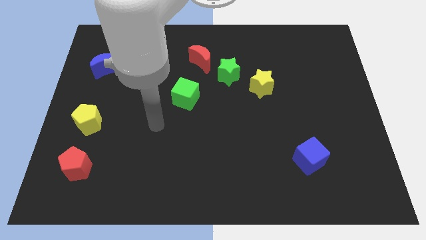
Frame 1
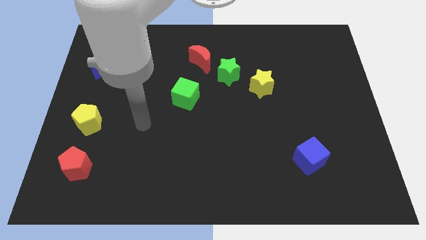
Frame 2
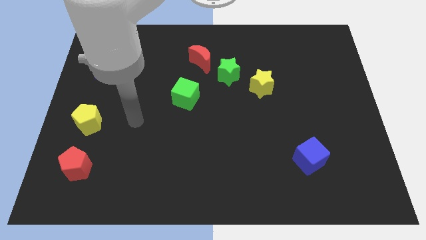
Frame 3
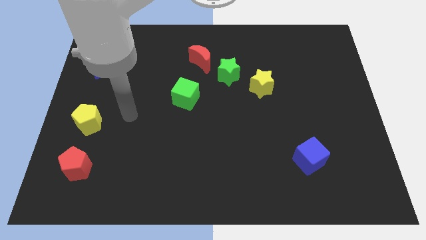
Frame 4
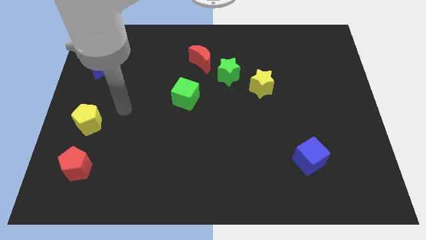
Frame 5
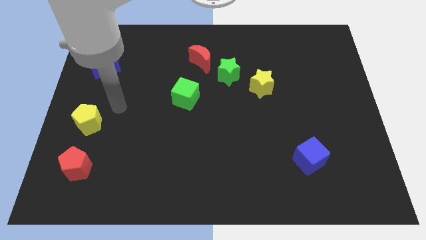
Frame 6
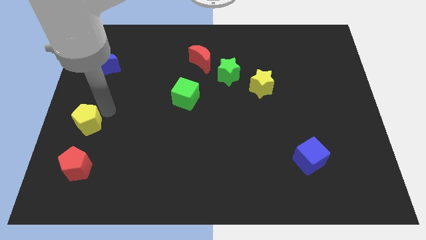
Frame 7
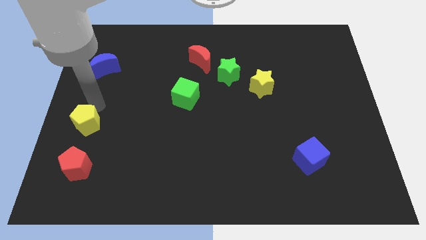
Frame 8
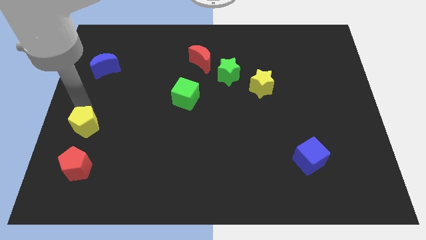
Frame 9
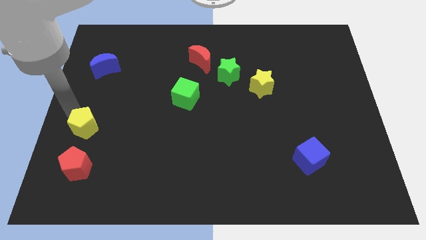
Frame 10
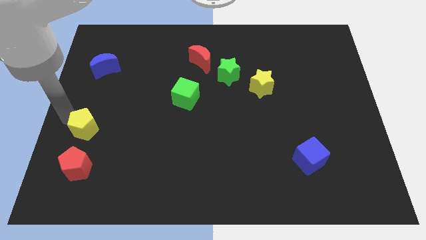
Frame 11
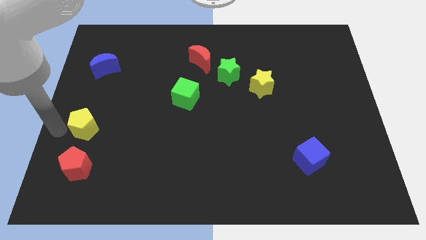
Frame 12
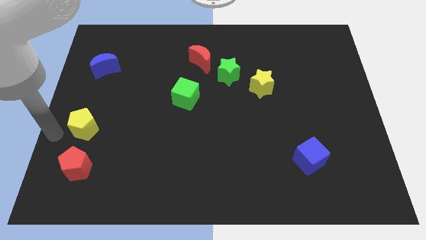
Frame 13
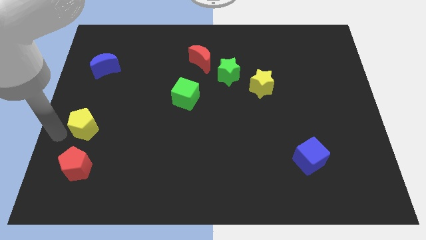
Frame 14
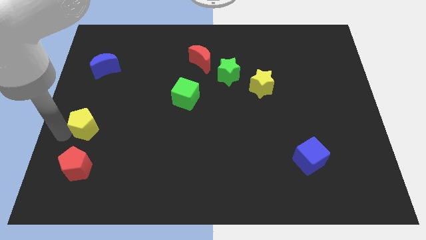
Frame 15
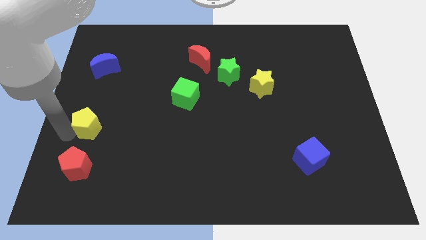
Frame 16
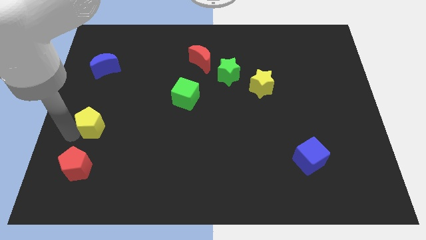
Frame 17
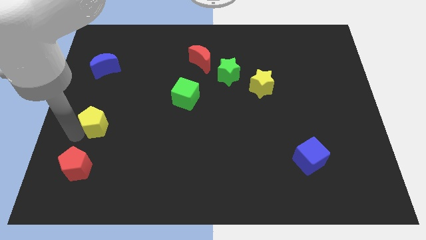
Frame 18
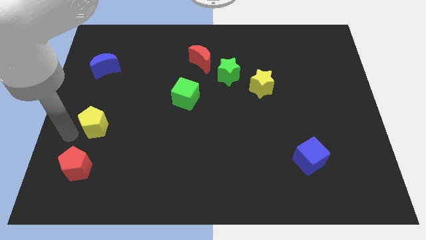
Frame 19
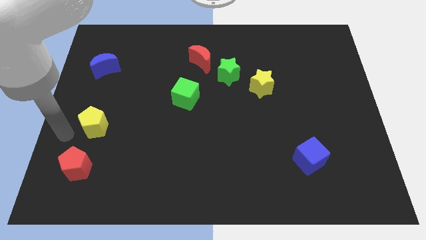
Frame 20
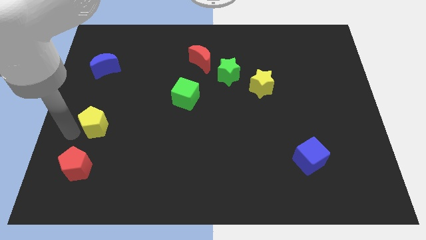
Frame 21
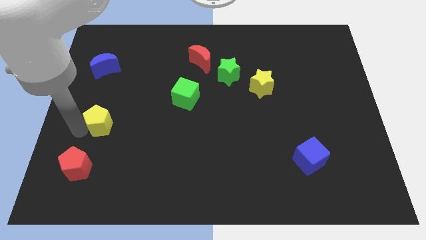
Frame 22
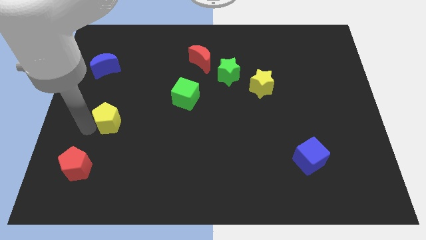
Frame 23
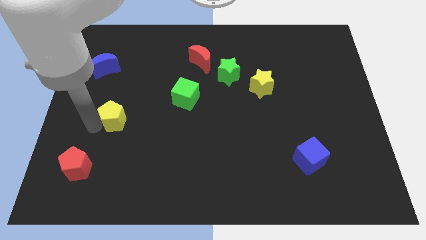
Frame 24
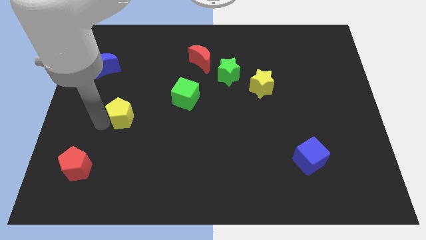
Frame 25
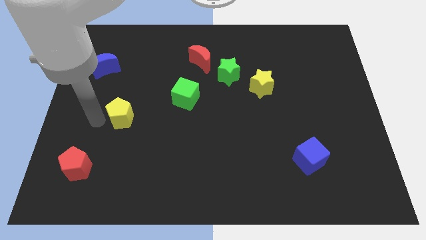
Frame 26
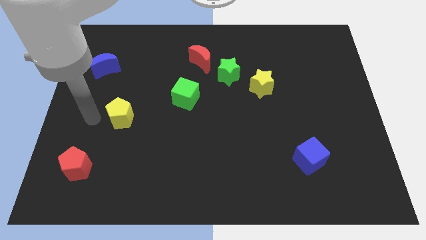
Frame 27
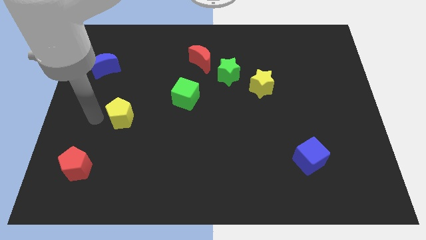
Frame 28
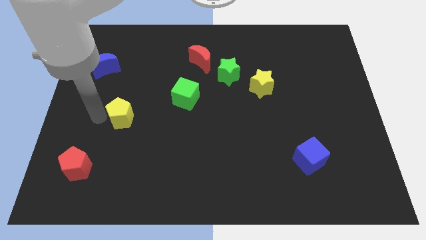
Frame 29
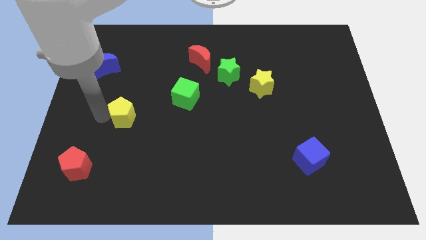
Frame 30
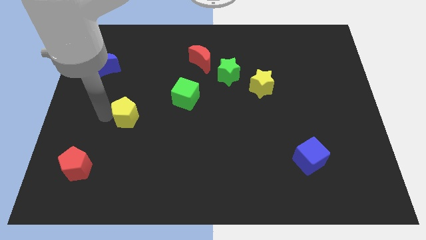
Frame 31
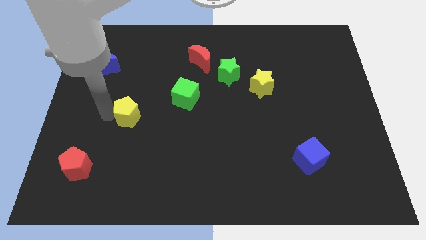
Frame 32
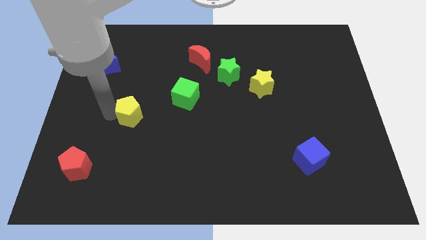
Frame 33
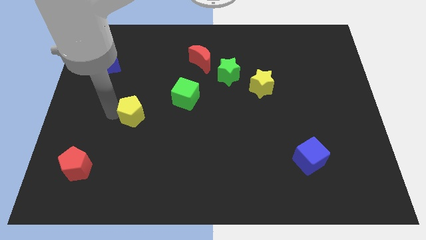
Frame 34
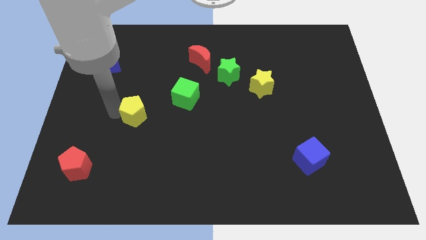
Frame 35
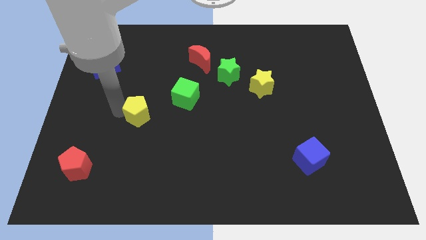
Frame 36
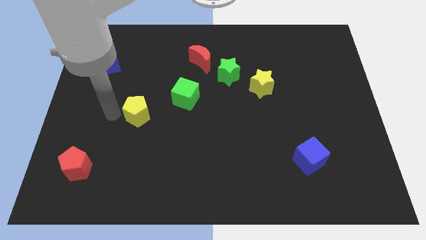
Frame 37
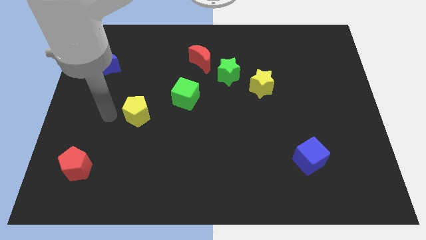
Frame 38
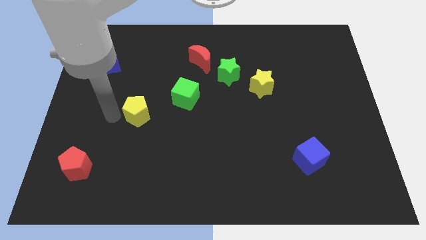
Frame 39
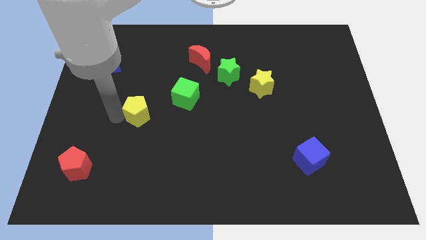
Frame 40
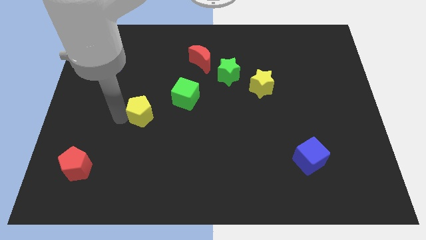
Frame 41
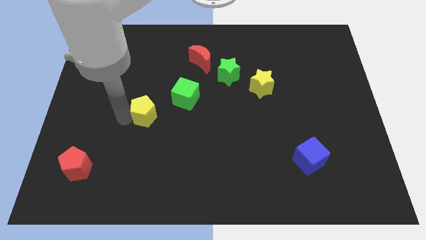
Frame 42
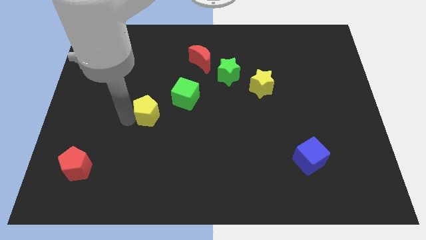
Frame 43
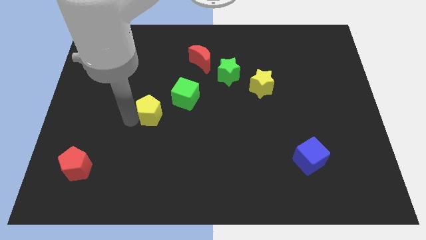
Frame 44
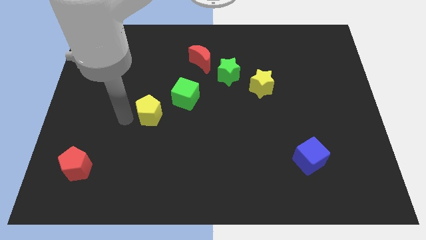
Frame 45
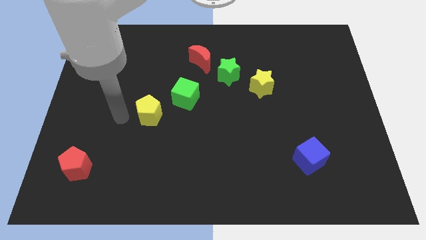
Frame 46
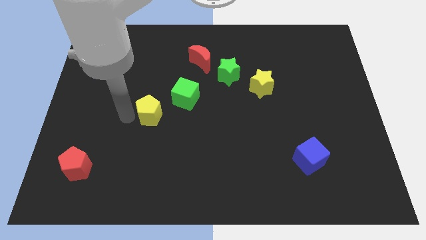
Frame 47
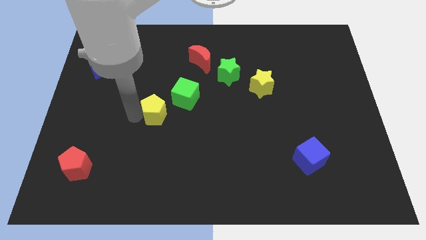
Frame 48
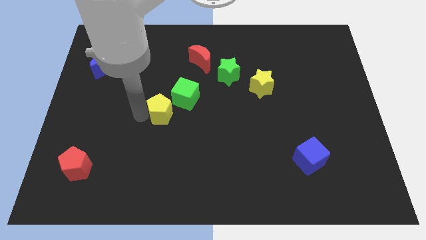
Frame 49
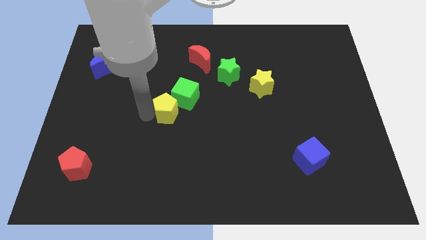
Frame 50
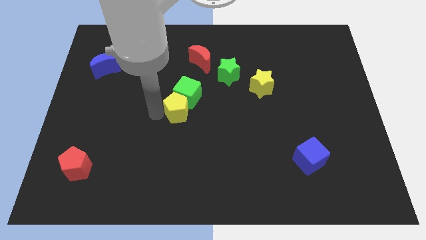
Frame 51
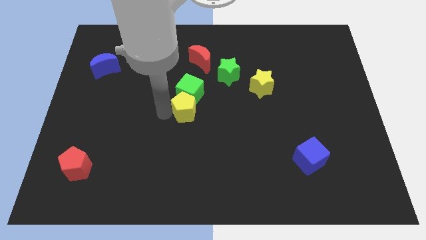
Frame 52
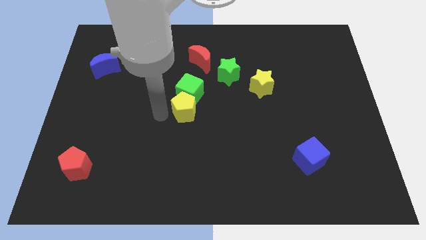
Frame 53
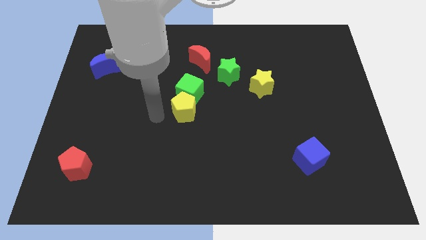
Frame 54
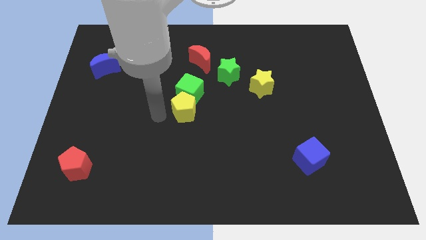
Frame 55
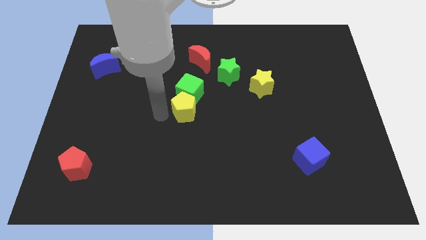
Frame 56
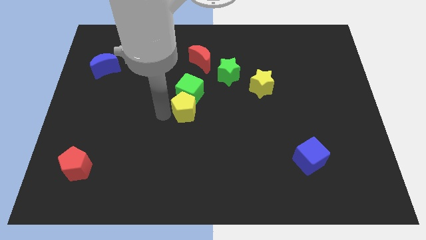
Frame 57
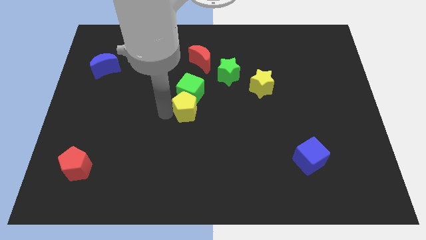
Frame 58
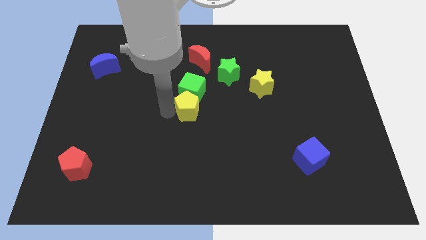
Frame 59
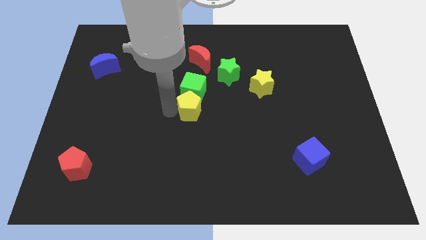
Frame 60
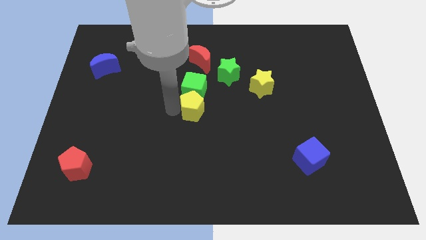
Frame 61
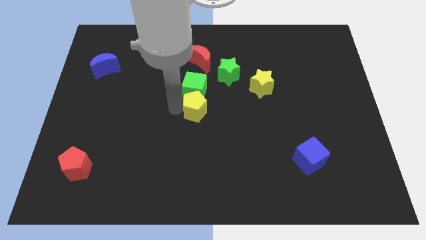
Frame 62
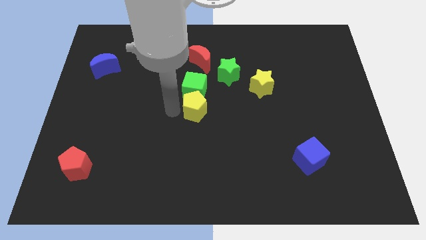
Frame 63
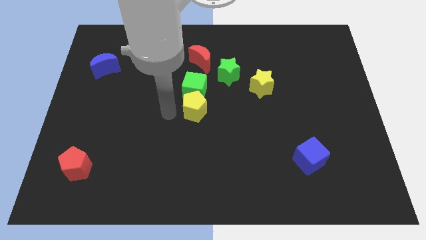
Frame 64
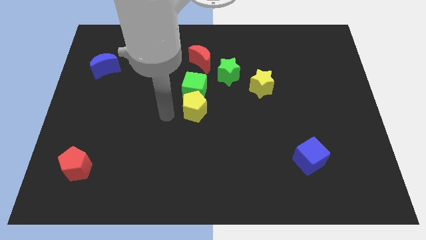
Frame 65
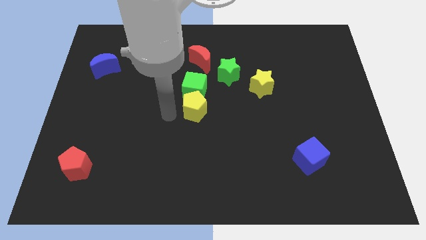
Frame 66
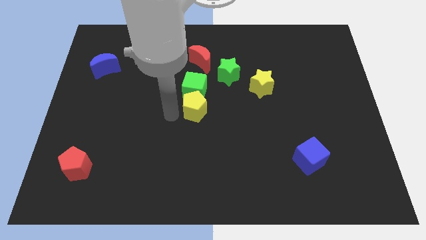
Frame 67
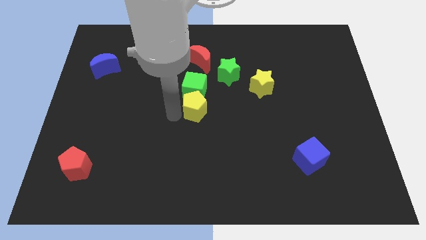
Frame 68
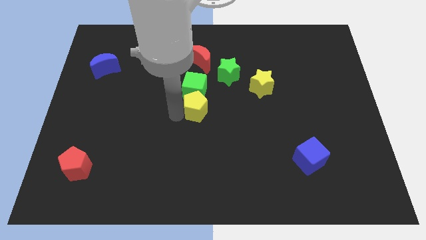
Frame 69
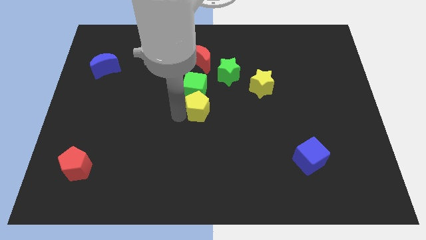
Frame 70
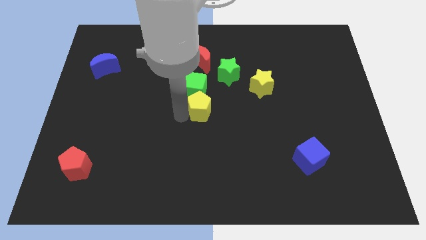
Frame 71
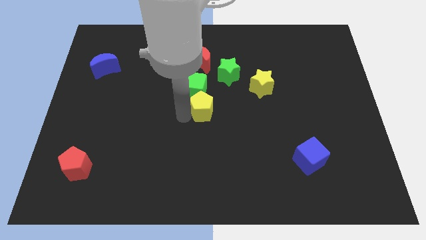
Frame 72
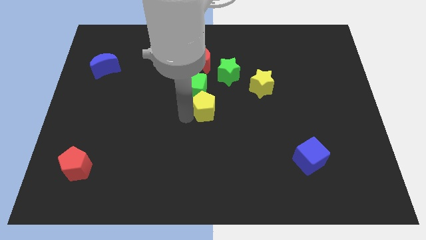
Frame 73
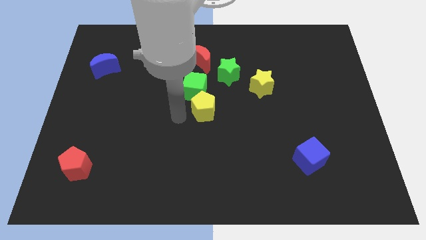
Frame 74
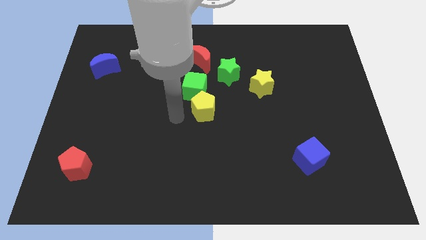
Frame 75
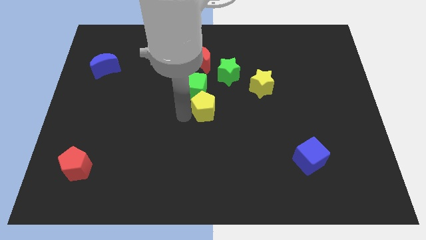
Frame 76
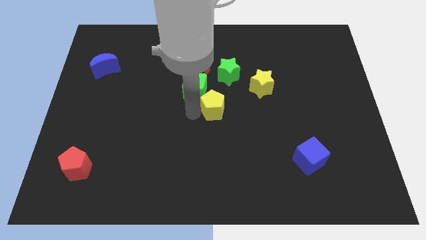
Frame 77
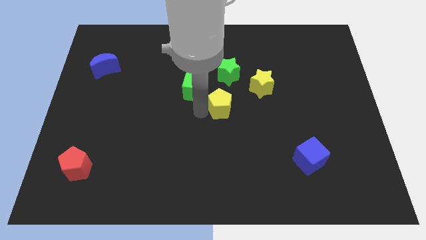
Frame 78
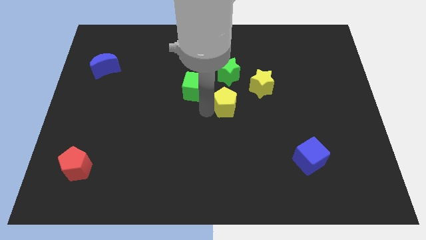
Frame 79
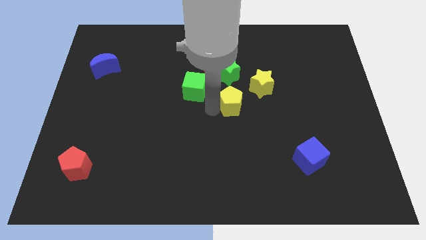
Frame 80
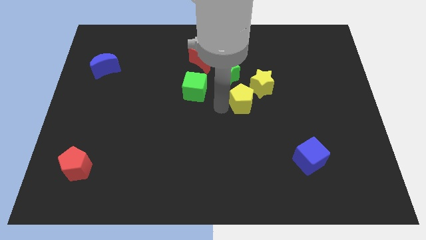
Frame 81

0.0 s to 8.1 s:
move the yellow pentagon to the bottom right side of the green star
